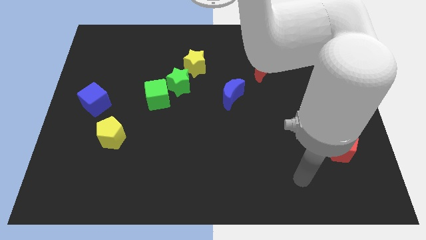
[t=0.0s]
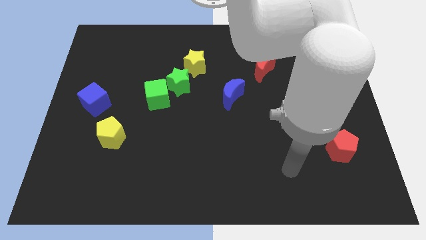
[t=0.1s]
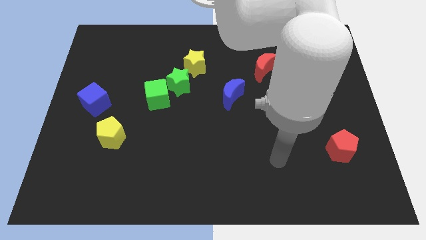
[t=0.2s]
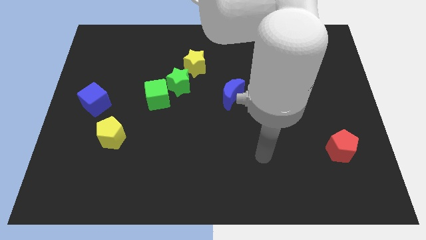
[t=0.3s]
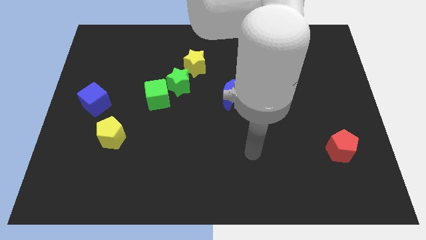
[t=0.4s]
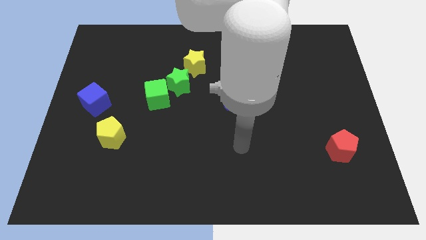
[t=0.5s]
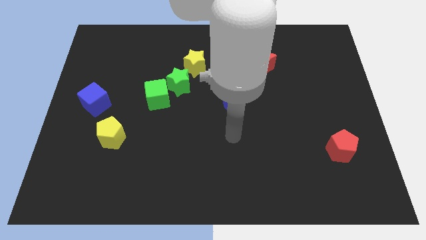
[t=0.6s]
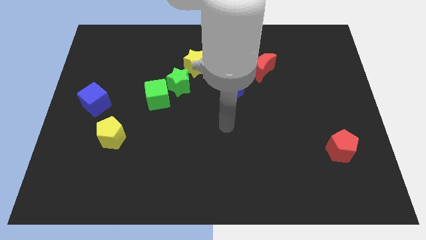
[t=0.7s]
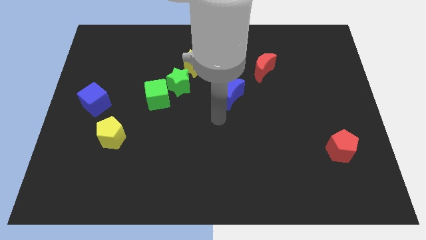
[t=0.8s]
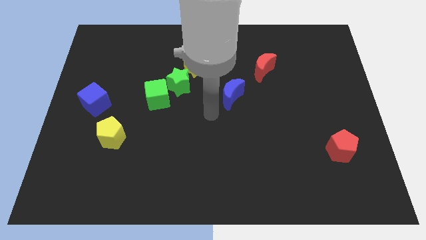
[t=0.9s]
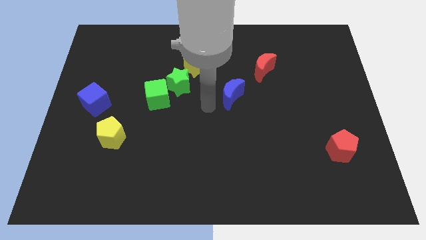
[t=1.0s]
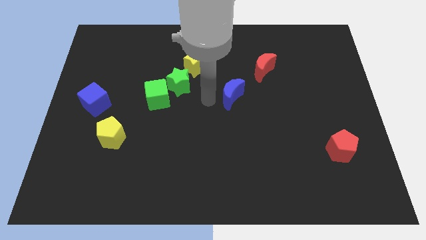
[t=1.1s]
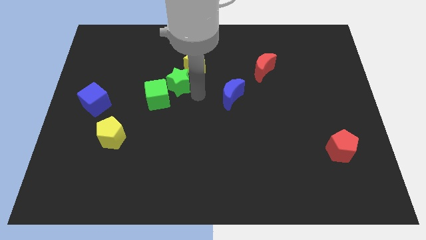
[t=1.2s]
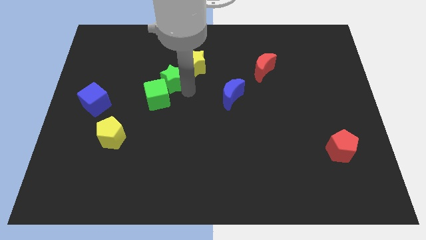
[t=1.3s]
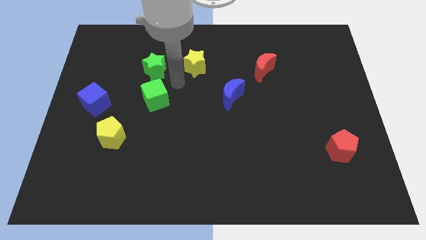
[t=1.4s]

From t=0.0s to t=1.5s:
move the green cube away from the green star

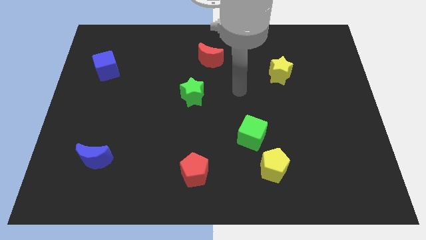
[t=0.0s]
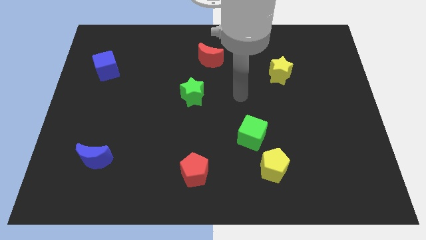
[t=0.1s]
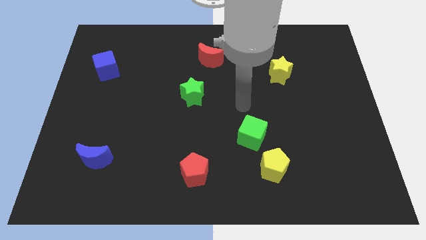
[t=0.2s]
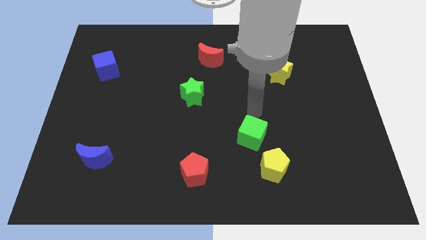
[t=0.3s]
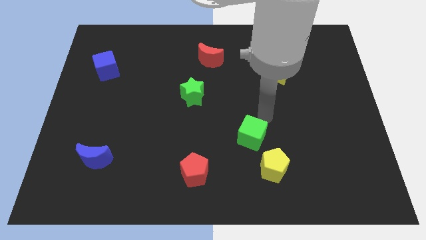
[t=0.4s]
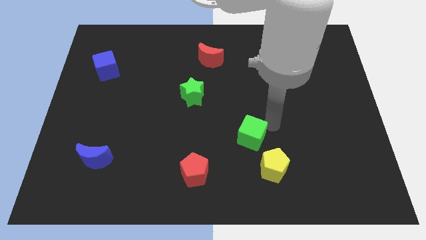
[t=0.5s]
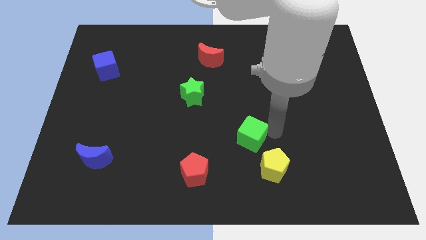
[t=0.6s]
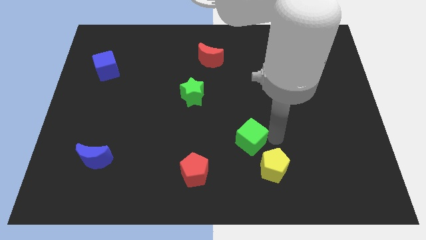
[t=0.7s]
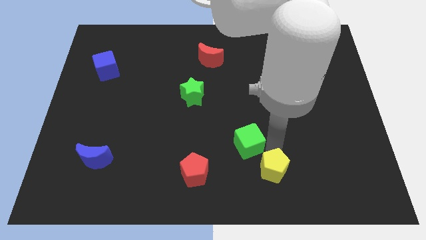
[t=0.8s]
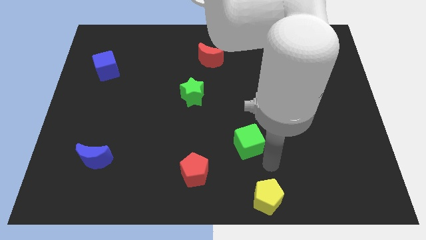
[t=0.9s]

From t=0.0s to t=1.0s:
pull the green cube apart from the yellow pentagon

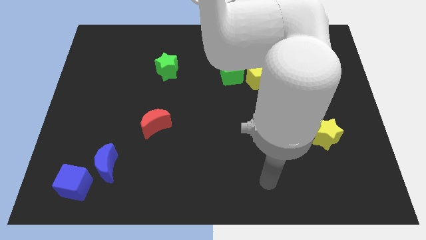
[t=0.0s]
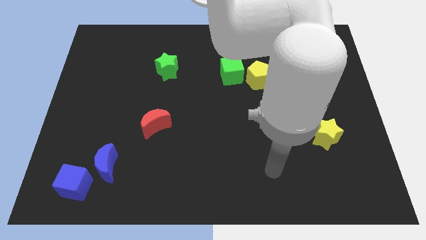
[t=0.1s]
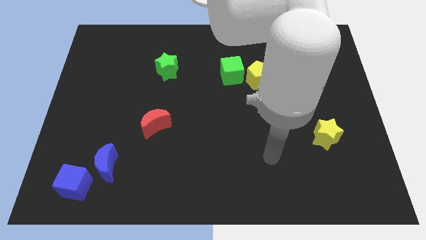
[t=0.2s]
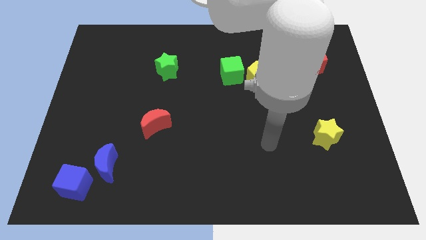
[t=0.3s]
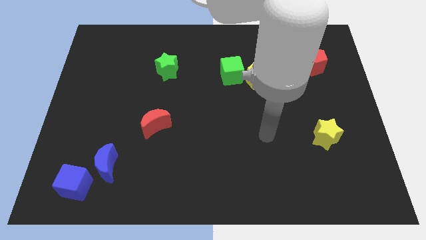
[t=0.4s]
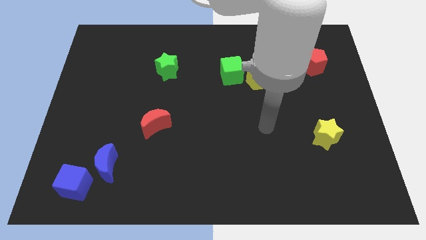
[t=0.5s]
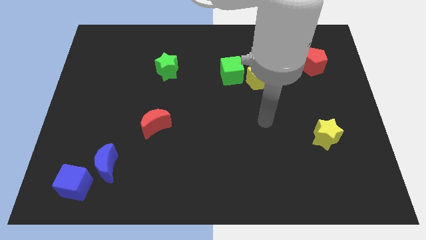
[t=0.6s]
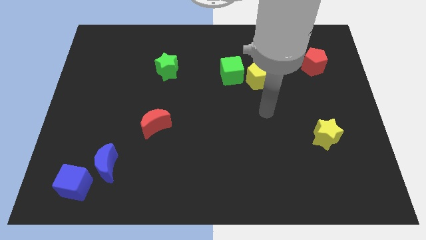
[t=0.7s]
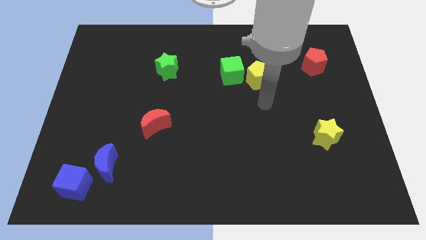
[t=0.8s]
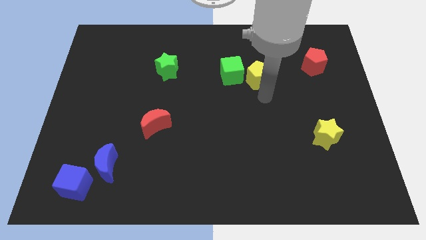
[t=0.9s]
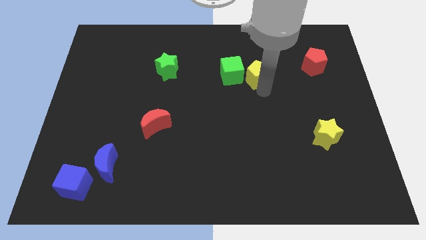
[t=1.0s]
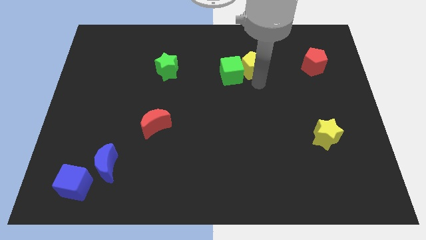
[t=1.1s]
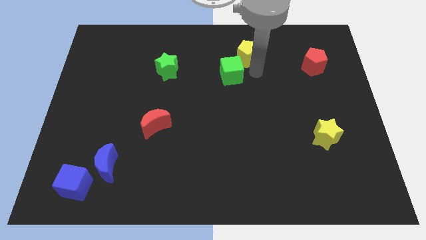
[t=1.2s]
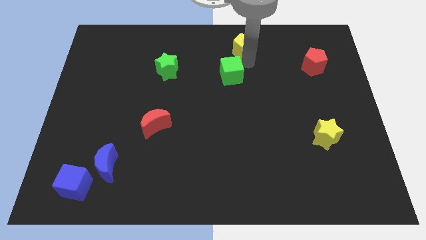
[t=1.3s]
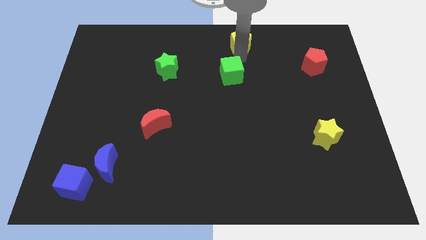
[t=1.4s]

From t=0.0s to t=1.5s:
separate the green cube from the yellow pentagon

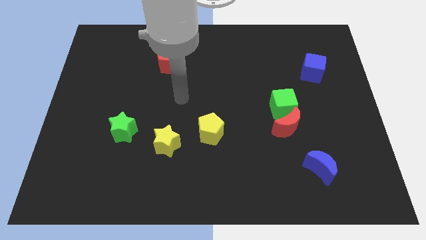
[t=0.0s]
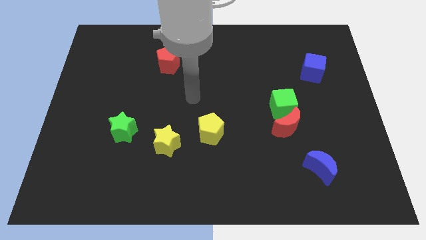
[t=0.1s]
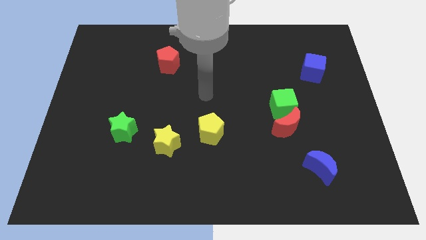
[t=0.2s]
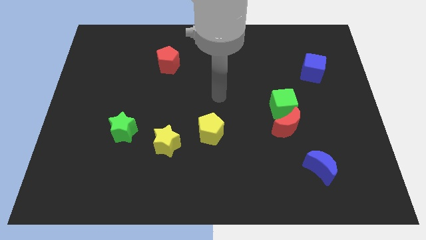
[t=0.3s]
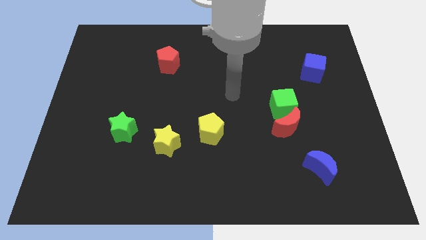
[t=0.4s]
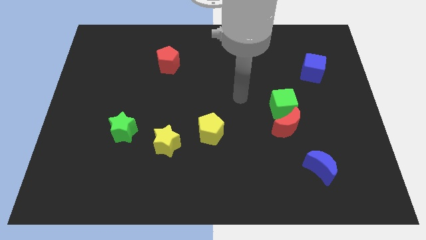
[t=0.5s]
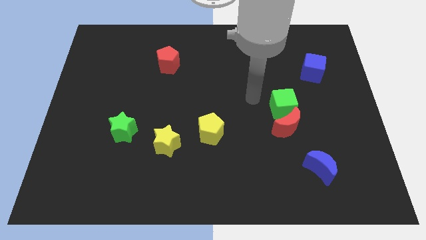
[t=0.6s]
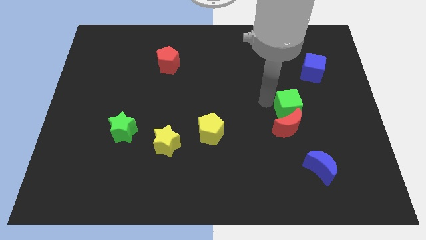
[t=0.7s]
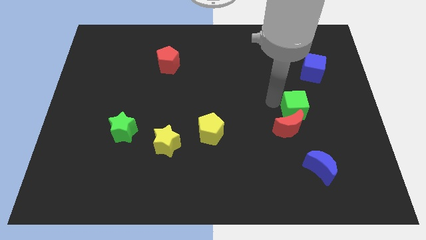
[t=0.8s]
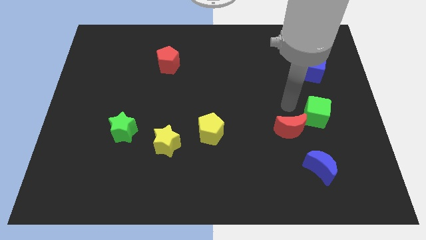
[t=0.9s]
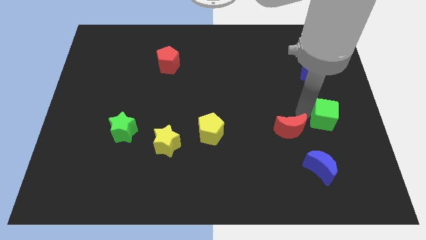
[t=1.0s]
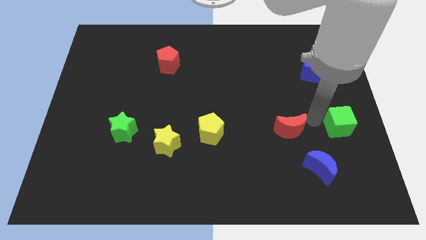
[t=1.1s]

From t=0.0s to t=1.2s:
move the red moon away from the green cube

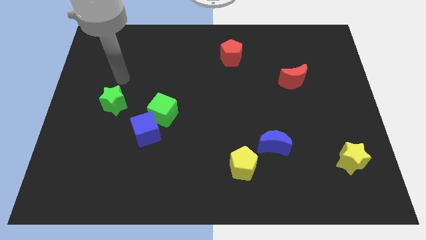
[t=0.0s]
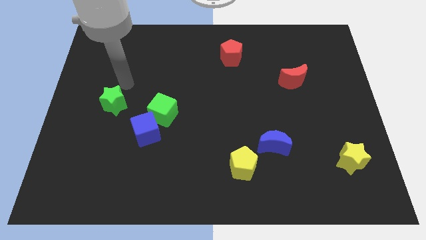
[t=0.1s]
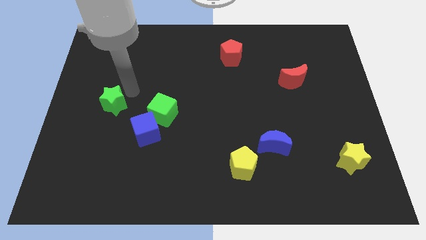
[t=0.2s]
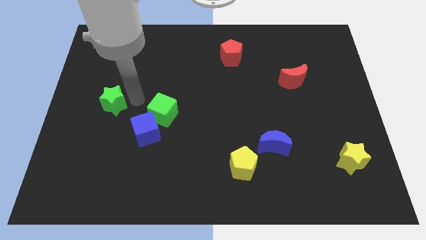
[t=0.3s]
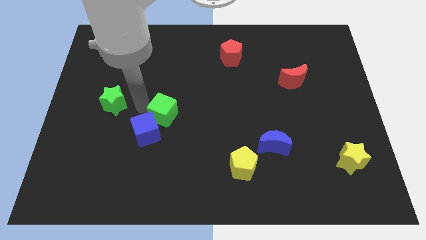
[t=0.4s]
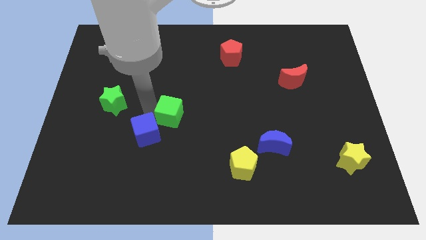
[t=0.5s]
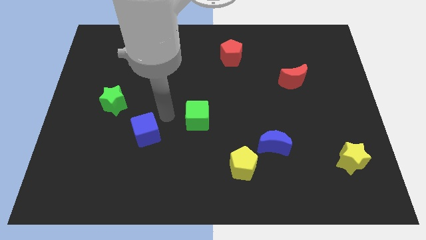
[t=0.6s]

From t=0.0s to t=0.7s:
pull the blue cube apart from the green cube

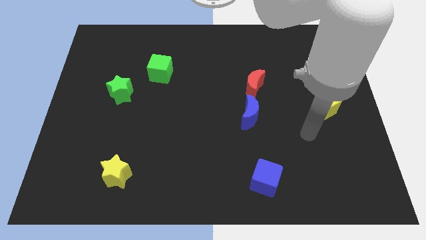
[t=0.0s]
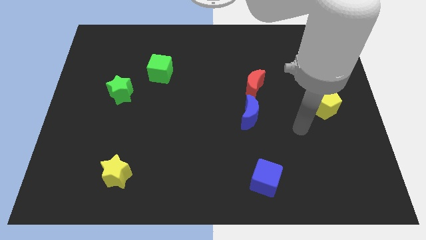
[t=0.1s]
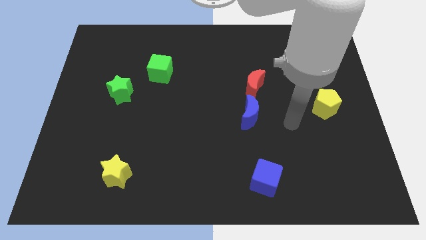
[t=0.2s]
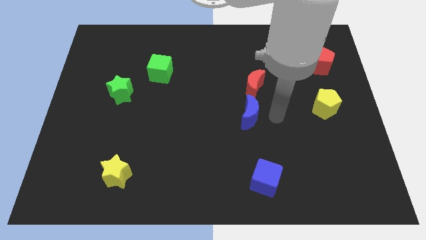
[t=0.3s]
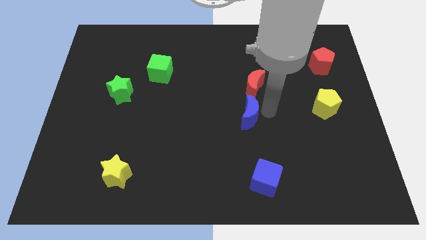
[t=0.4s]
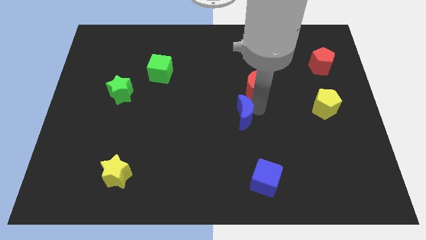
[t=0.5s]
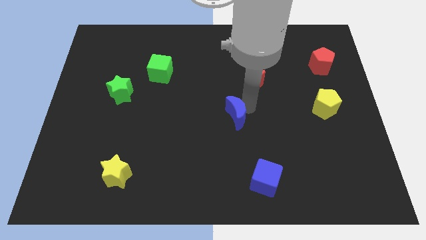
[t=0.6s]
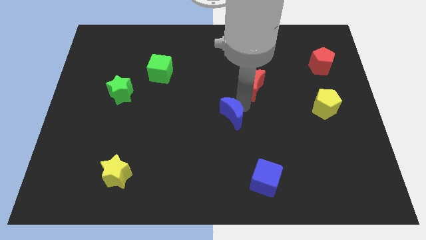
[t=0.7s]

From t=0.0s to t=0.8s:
pull the red moon apart from the blue moon

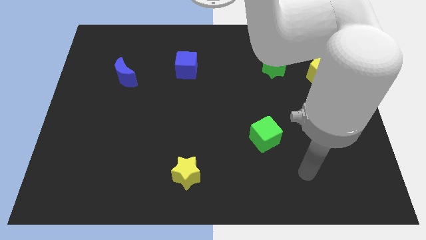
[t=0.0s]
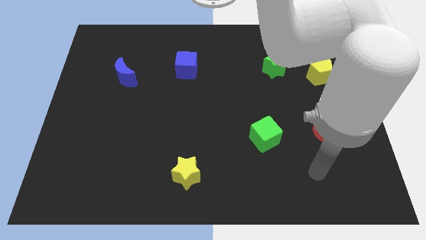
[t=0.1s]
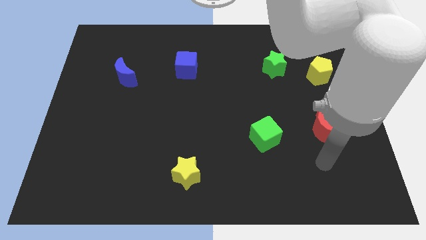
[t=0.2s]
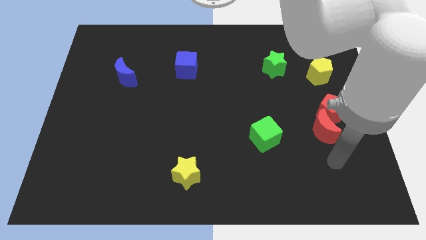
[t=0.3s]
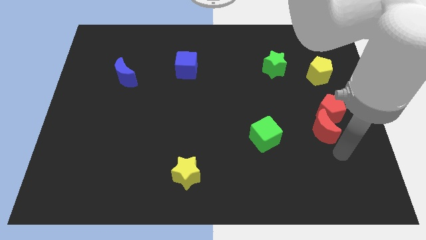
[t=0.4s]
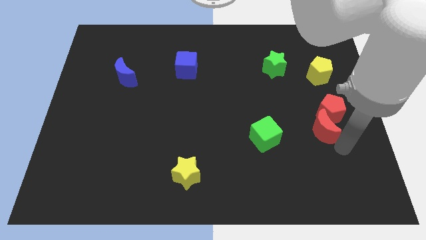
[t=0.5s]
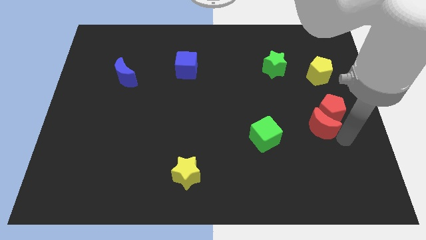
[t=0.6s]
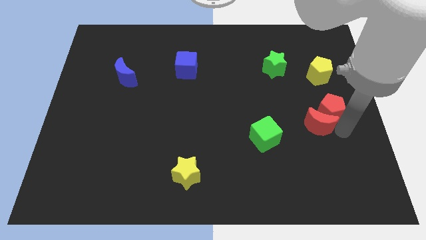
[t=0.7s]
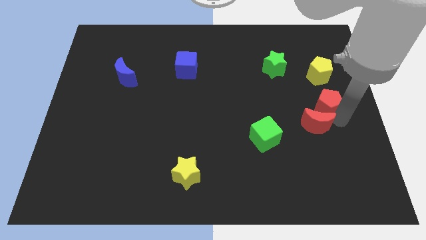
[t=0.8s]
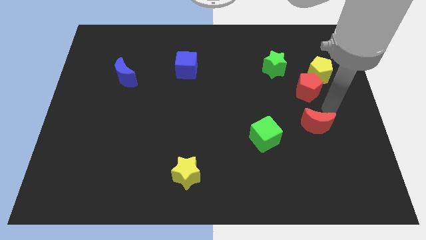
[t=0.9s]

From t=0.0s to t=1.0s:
pull the red moon apart from the red pentagon

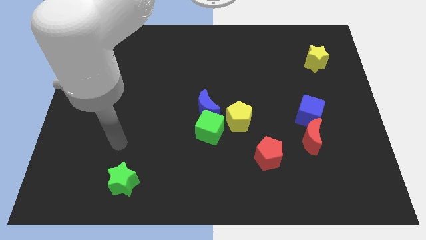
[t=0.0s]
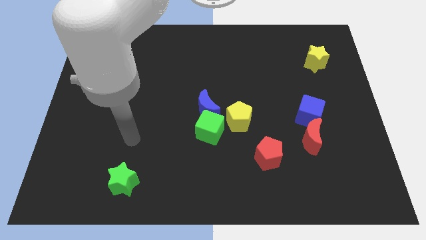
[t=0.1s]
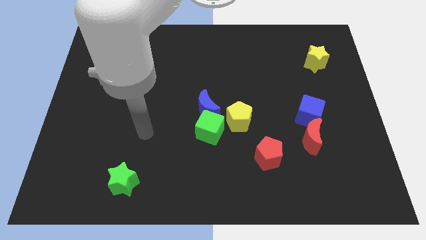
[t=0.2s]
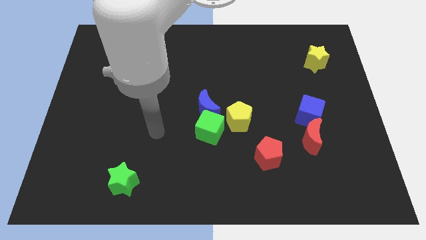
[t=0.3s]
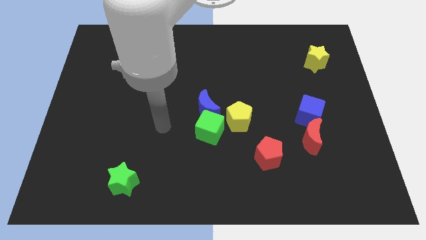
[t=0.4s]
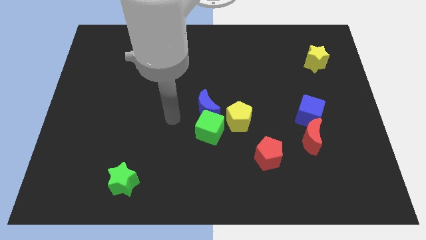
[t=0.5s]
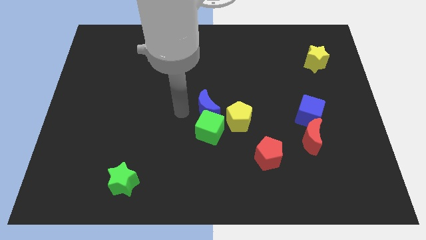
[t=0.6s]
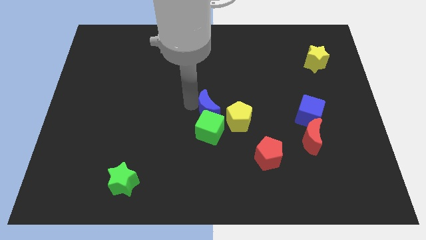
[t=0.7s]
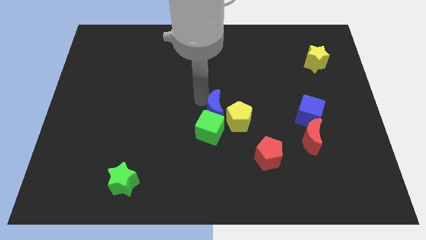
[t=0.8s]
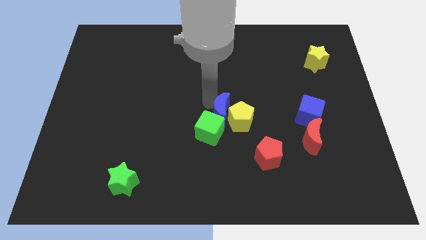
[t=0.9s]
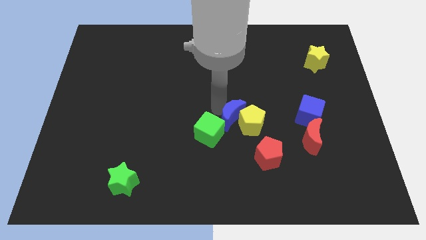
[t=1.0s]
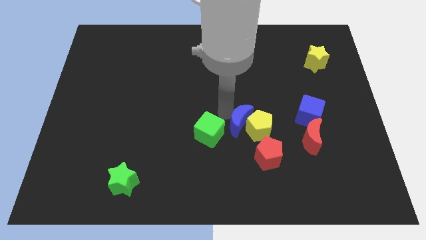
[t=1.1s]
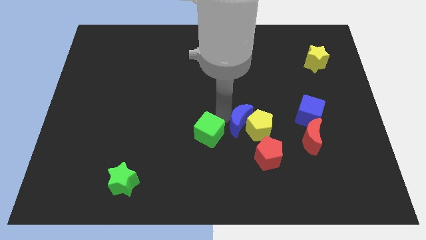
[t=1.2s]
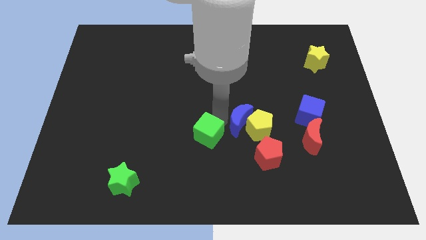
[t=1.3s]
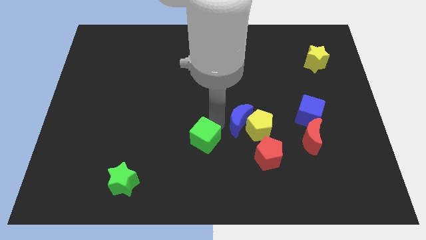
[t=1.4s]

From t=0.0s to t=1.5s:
separate the green cube from the blue moon and yellow pentagon

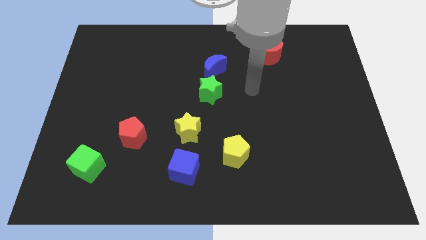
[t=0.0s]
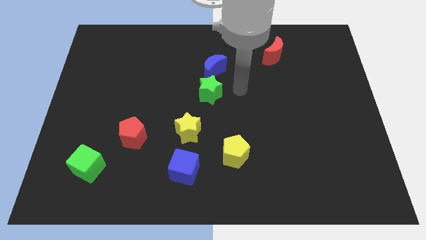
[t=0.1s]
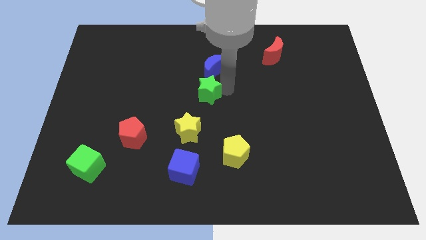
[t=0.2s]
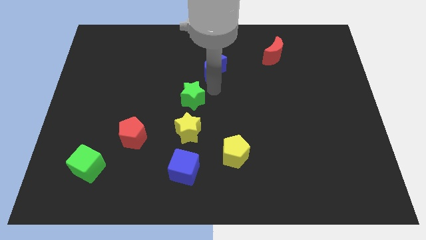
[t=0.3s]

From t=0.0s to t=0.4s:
separate the blue moon from the green star
